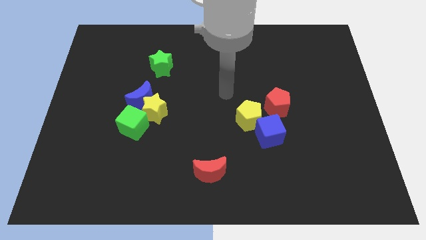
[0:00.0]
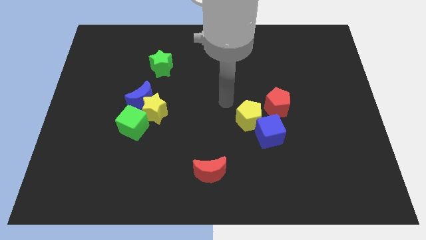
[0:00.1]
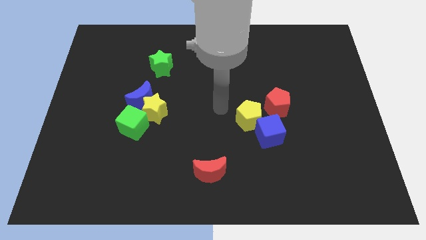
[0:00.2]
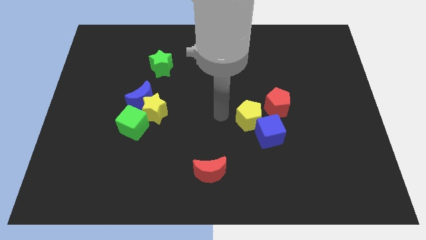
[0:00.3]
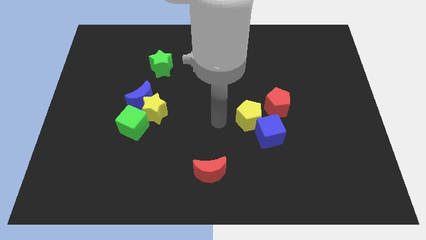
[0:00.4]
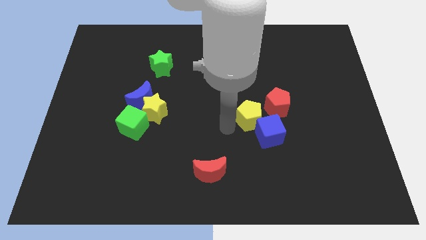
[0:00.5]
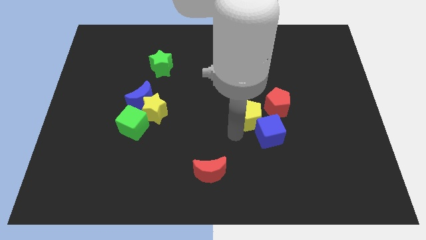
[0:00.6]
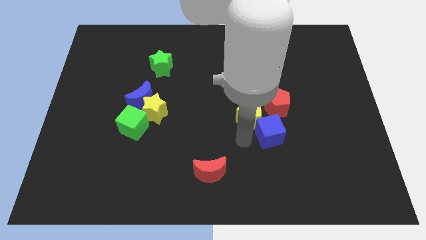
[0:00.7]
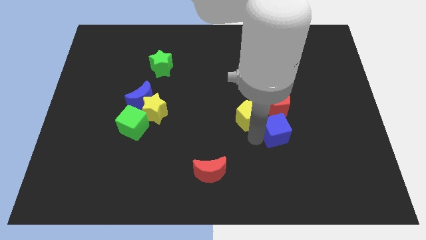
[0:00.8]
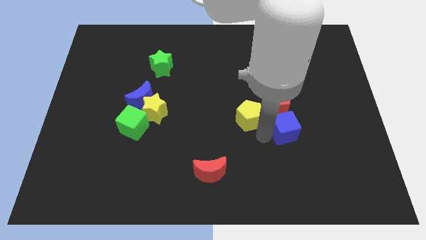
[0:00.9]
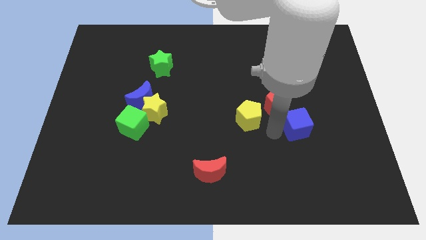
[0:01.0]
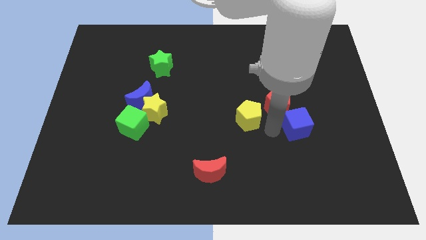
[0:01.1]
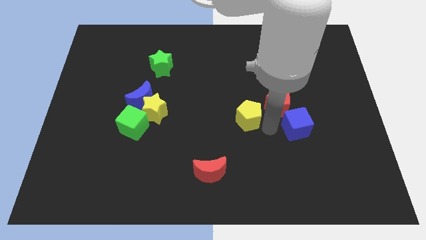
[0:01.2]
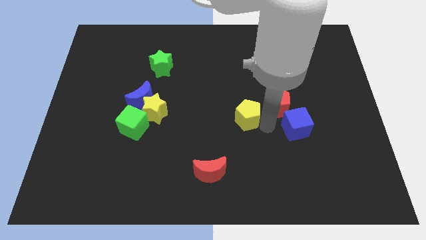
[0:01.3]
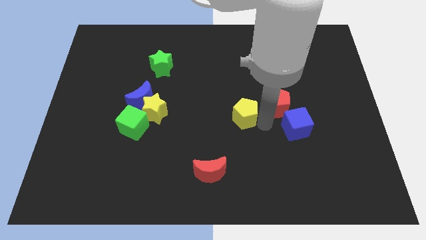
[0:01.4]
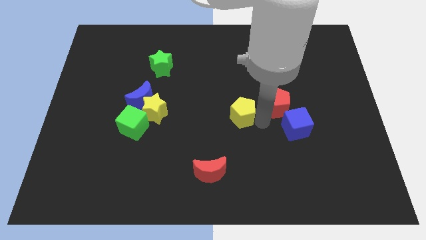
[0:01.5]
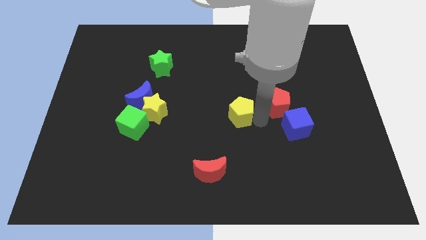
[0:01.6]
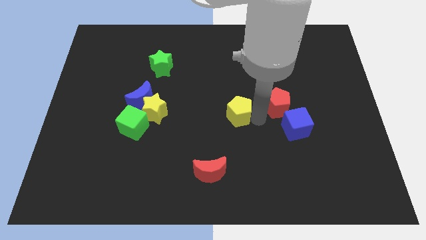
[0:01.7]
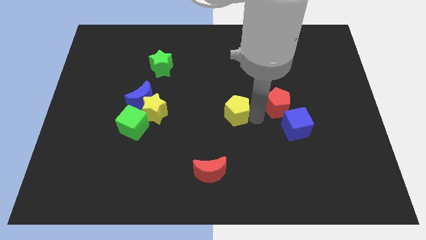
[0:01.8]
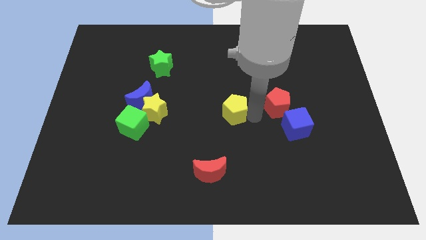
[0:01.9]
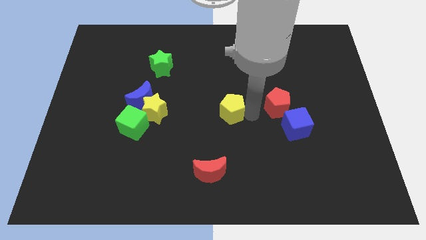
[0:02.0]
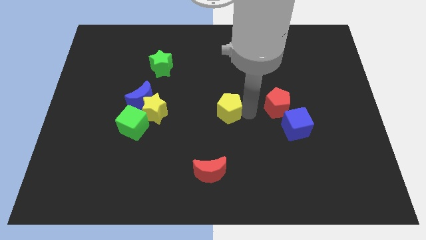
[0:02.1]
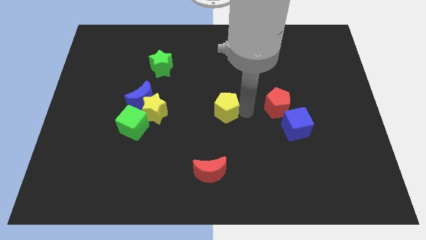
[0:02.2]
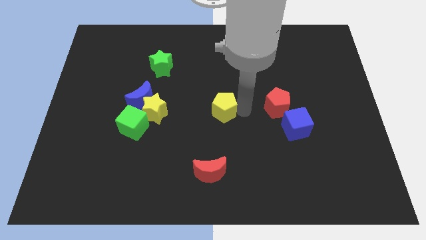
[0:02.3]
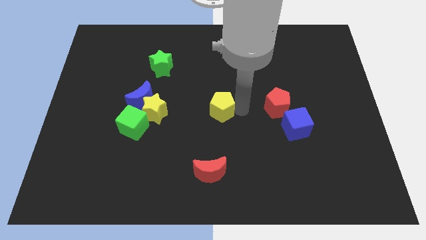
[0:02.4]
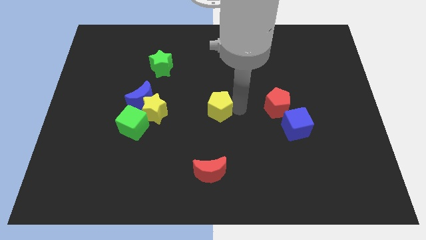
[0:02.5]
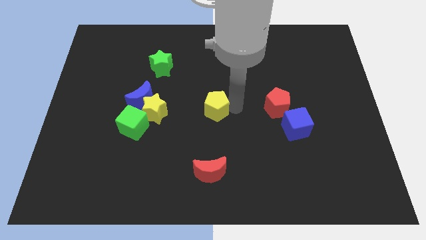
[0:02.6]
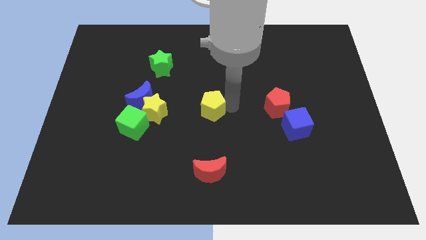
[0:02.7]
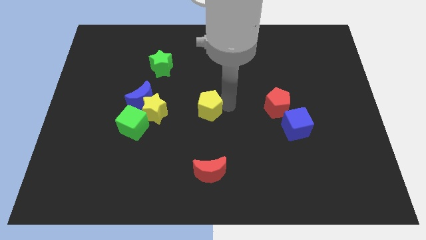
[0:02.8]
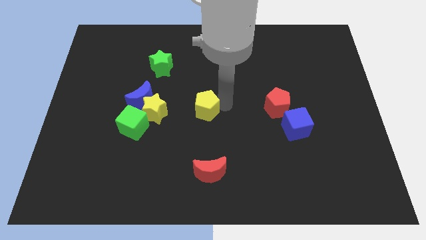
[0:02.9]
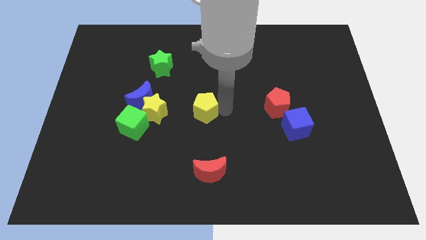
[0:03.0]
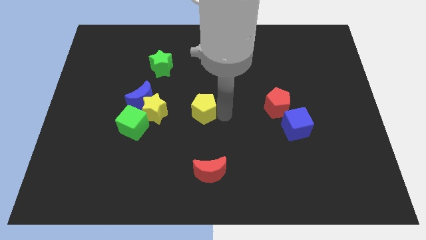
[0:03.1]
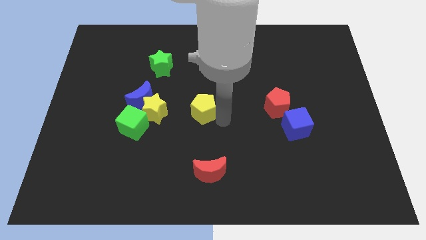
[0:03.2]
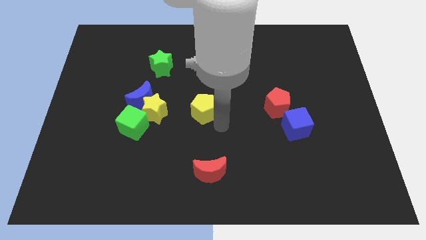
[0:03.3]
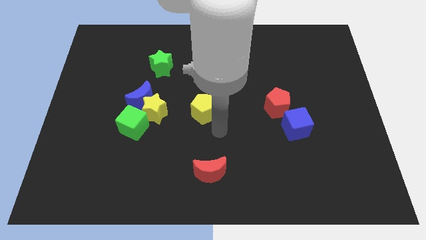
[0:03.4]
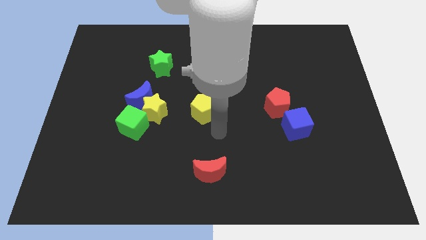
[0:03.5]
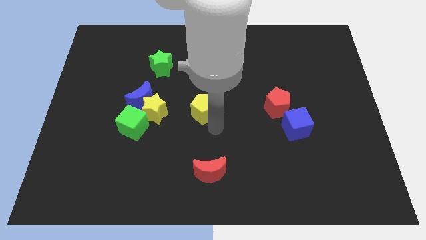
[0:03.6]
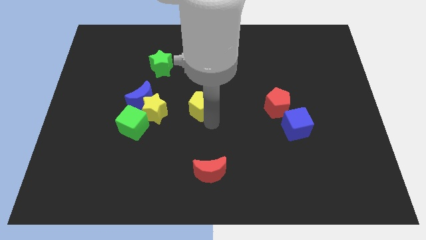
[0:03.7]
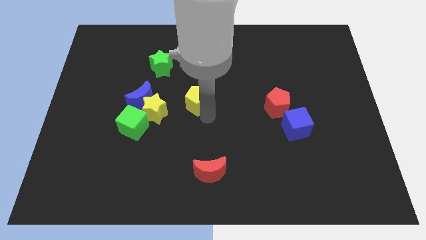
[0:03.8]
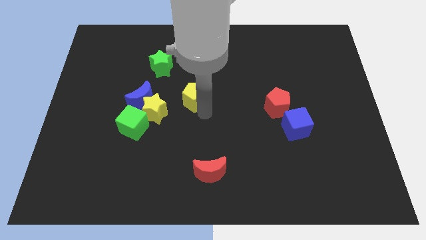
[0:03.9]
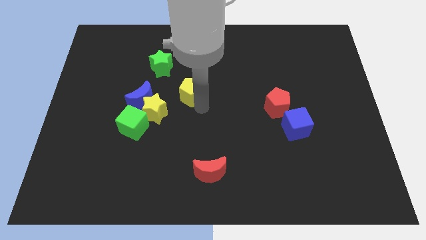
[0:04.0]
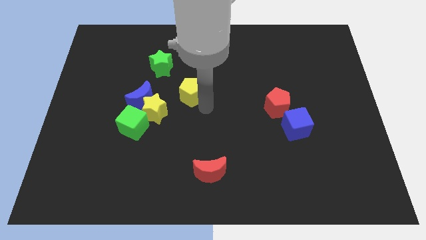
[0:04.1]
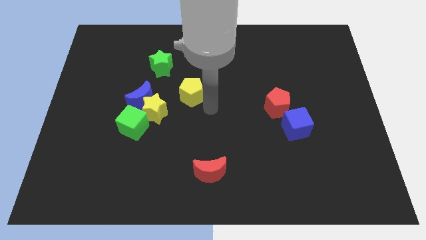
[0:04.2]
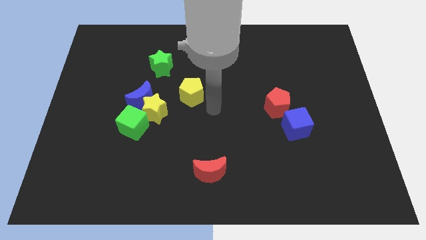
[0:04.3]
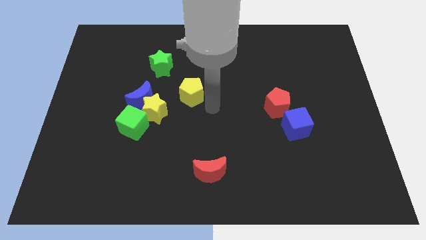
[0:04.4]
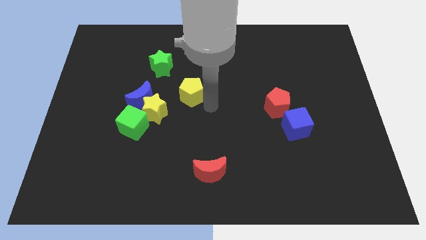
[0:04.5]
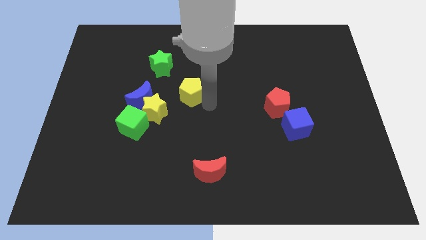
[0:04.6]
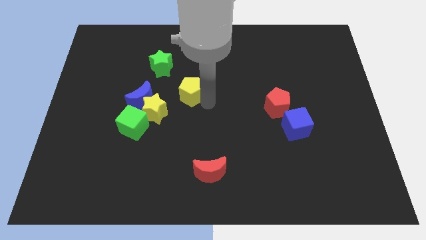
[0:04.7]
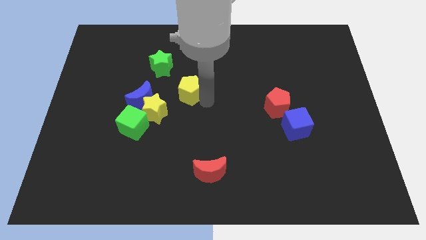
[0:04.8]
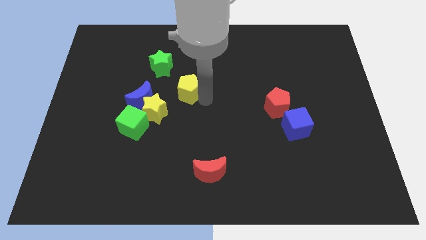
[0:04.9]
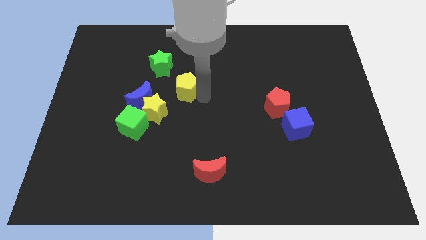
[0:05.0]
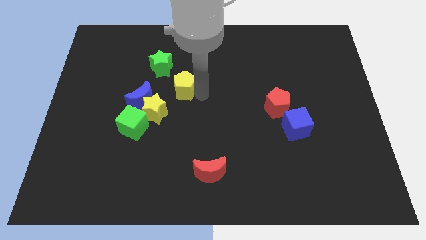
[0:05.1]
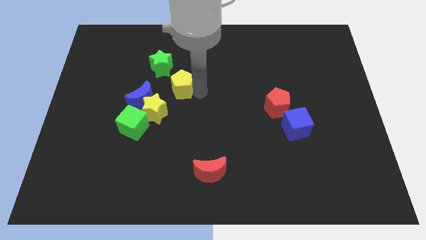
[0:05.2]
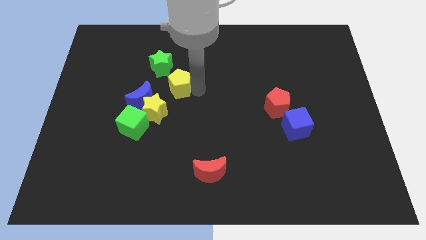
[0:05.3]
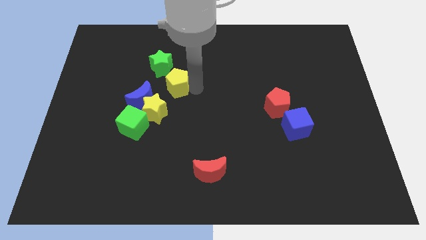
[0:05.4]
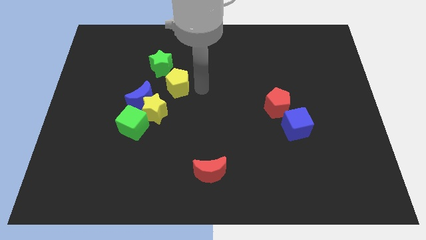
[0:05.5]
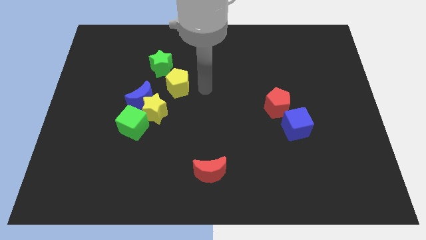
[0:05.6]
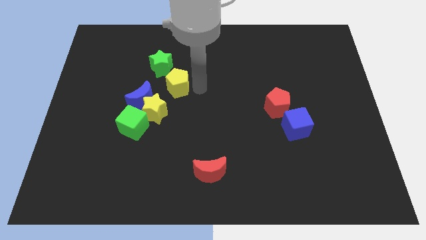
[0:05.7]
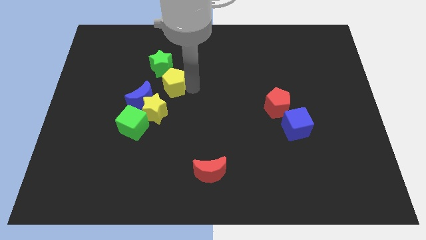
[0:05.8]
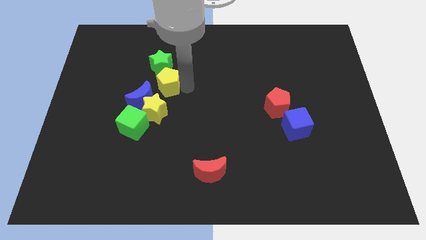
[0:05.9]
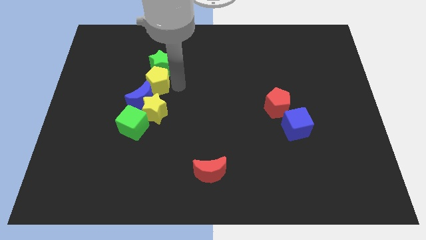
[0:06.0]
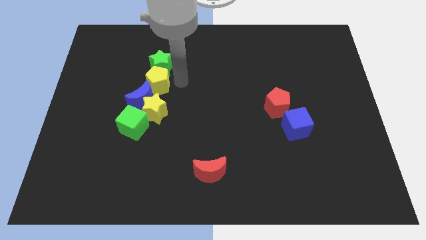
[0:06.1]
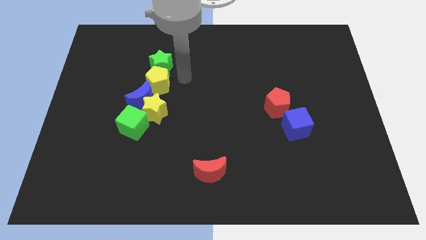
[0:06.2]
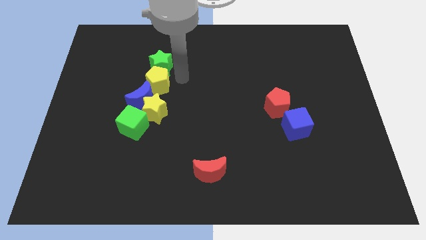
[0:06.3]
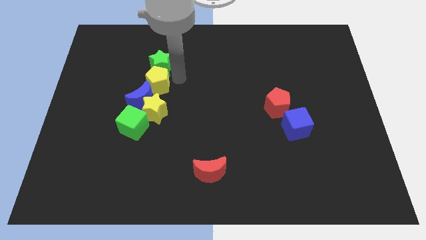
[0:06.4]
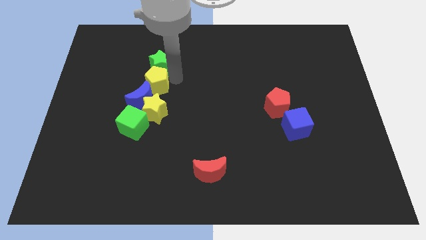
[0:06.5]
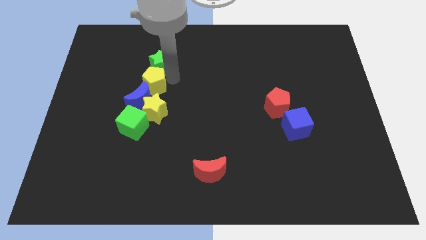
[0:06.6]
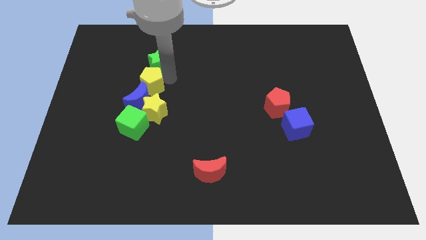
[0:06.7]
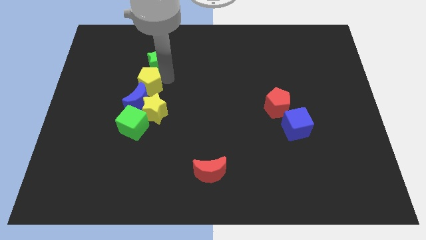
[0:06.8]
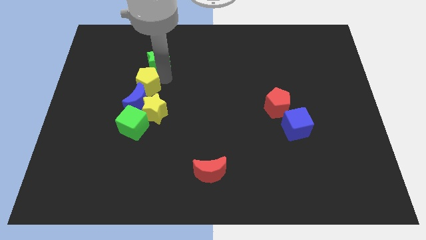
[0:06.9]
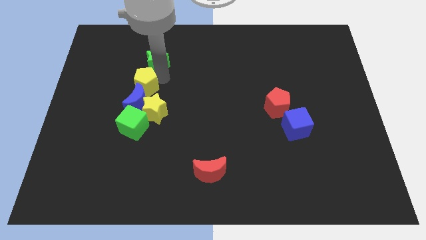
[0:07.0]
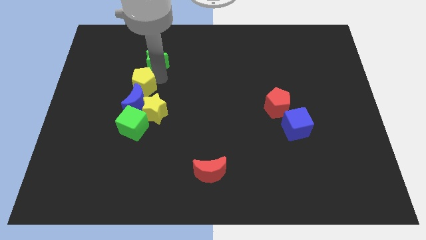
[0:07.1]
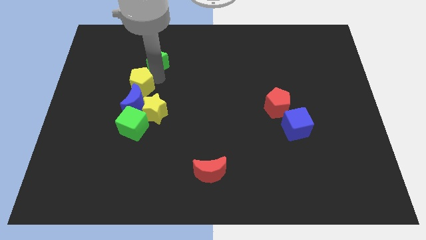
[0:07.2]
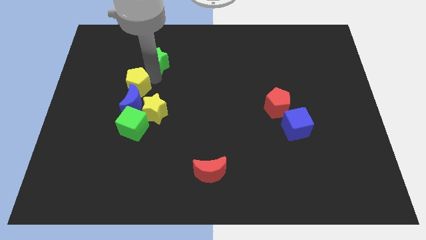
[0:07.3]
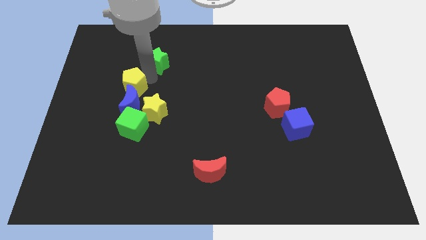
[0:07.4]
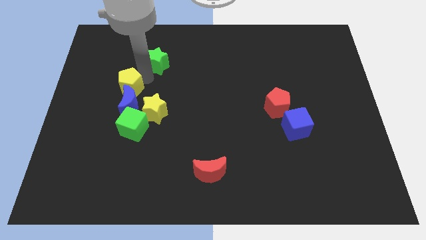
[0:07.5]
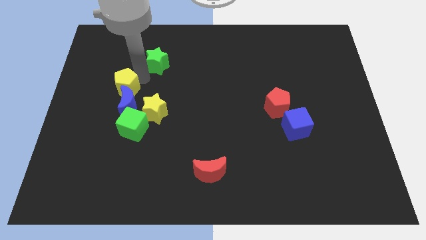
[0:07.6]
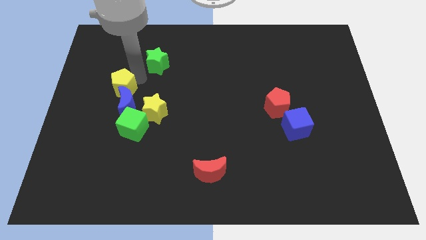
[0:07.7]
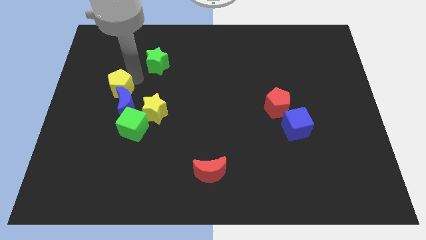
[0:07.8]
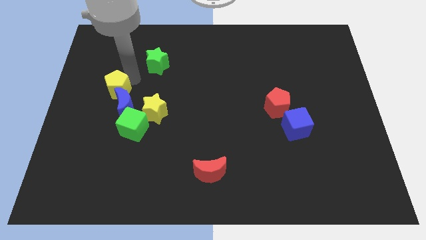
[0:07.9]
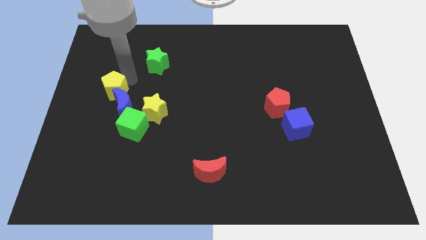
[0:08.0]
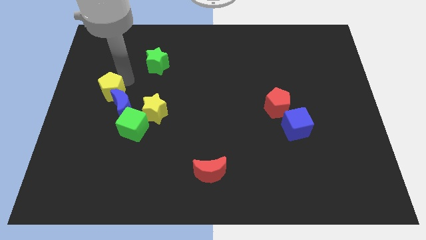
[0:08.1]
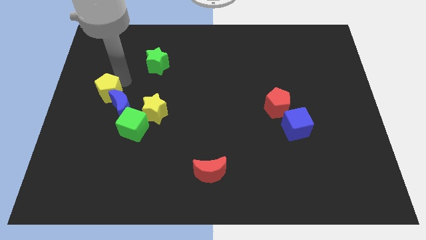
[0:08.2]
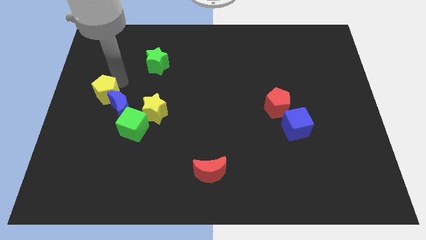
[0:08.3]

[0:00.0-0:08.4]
slide the yellow pentagon diagonally up and to the left of the green cube
